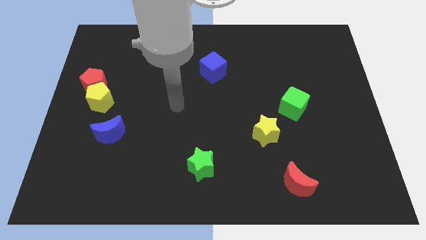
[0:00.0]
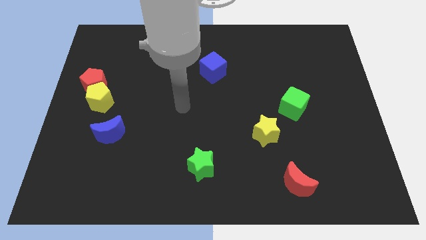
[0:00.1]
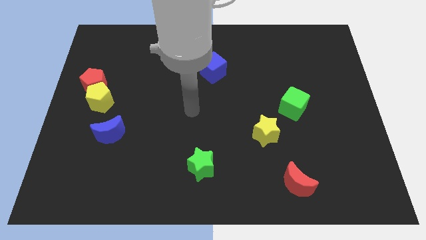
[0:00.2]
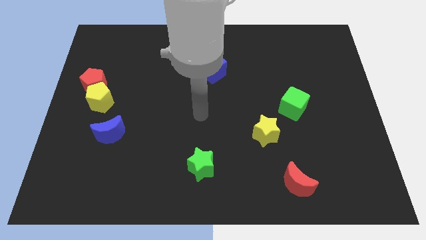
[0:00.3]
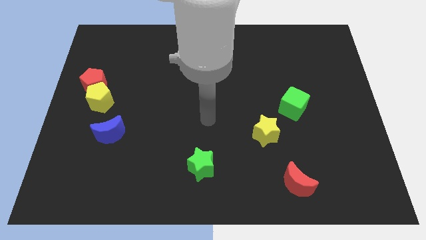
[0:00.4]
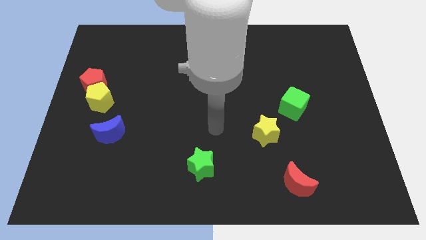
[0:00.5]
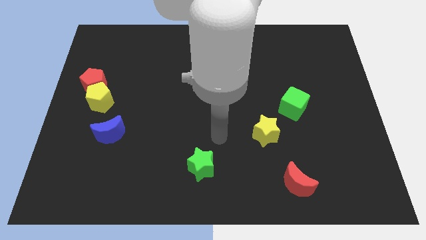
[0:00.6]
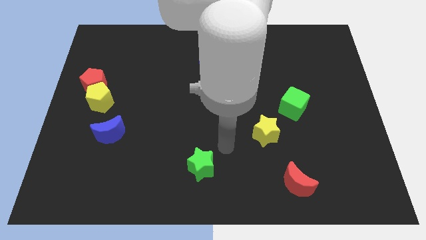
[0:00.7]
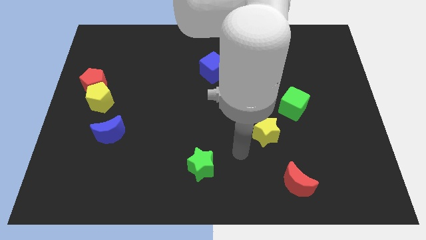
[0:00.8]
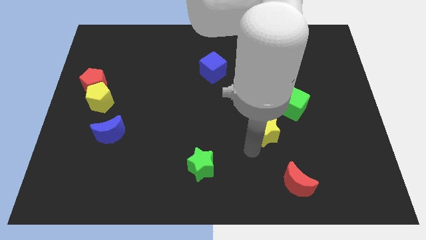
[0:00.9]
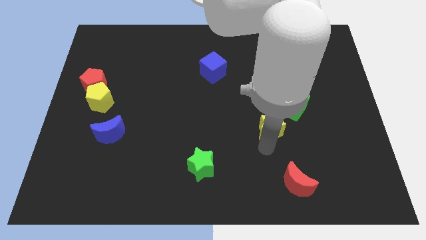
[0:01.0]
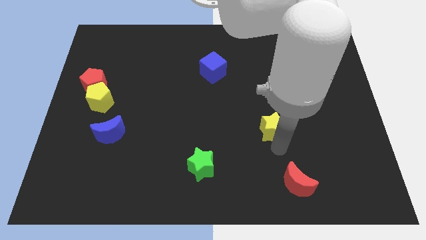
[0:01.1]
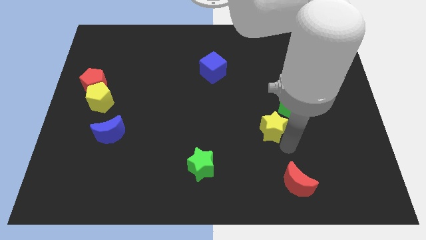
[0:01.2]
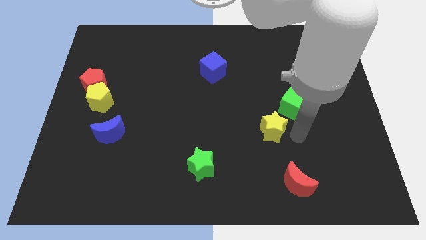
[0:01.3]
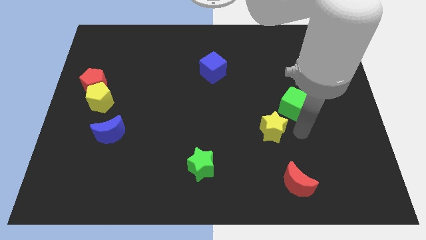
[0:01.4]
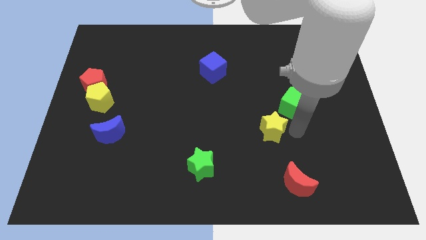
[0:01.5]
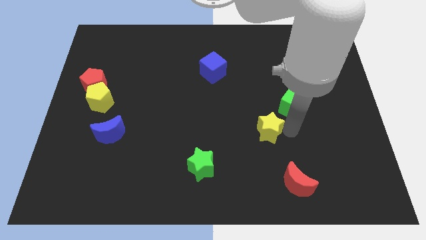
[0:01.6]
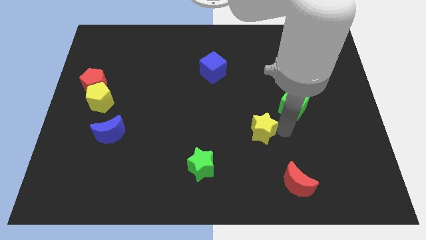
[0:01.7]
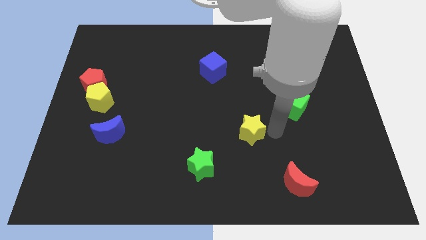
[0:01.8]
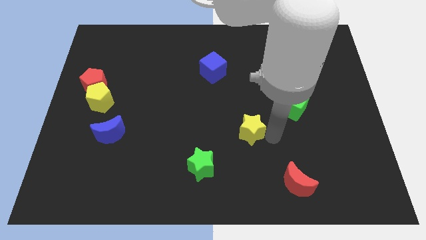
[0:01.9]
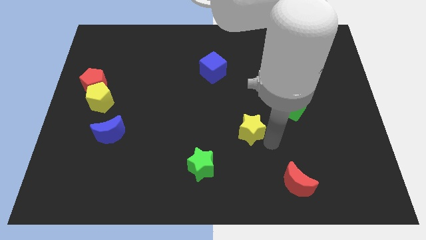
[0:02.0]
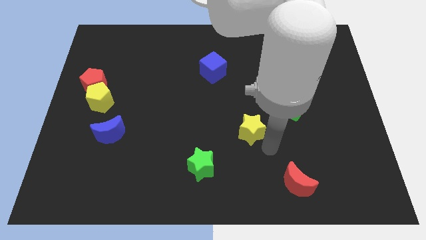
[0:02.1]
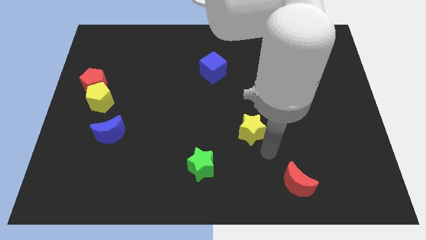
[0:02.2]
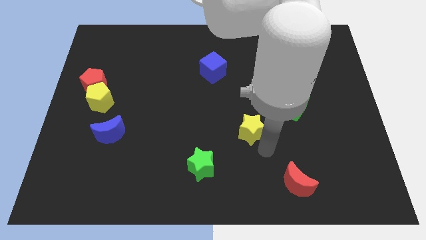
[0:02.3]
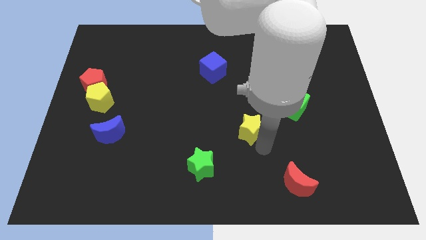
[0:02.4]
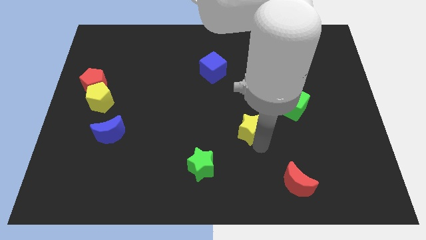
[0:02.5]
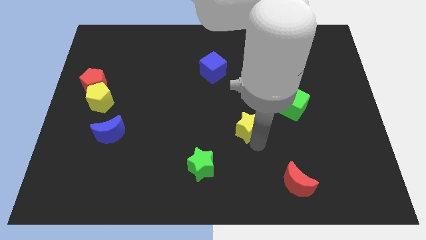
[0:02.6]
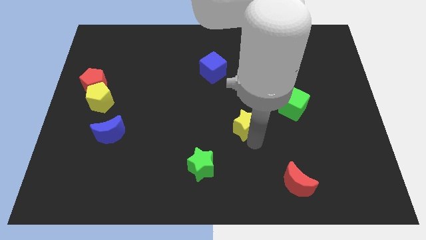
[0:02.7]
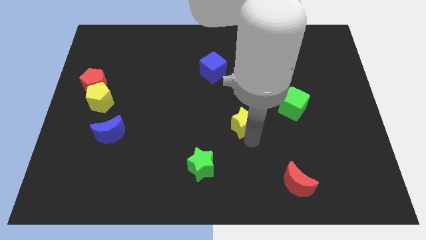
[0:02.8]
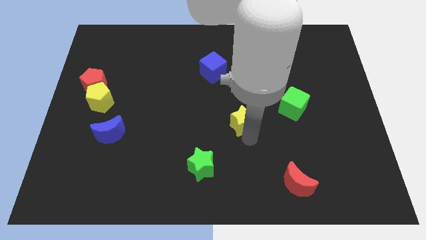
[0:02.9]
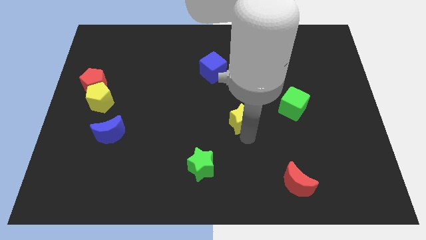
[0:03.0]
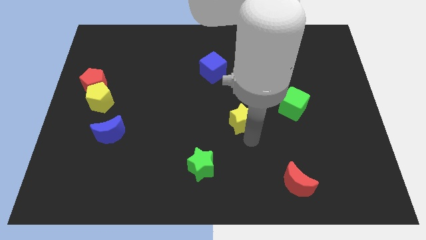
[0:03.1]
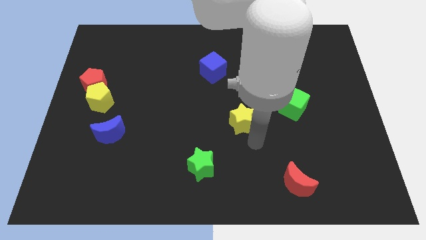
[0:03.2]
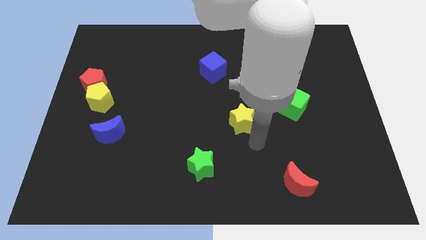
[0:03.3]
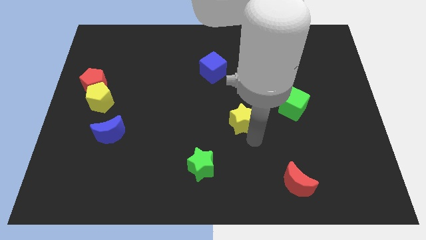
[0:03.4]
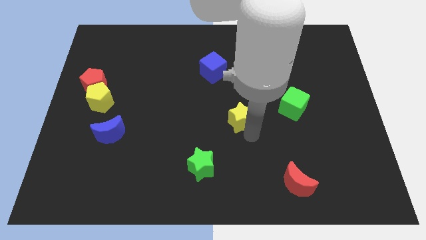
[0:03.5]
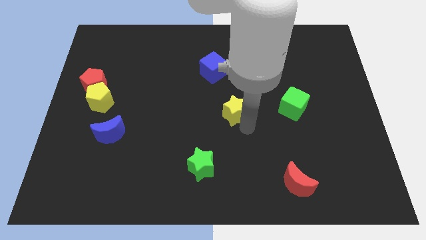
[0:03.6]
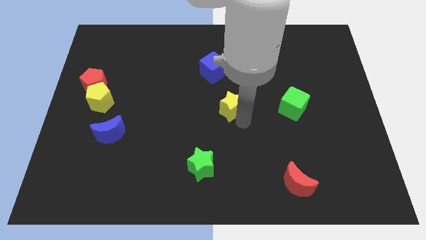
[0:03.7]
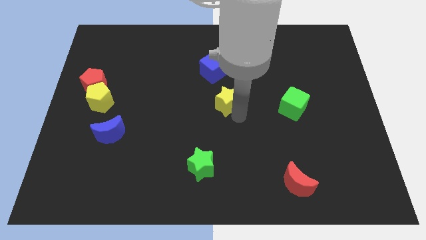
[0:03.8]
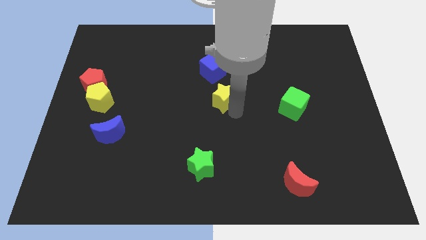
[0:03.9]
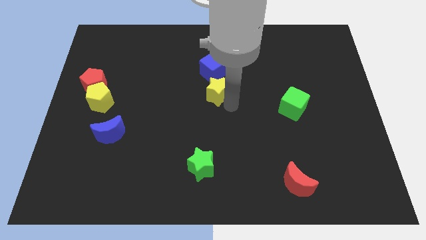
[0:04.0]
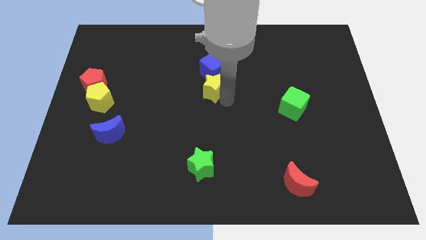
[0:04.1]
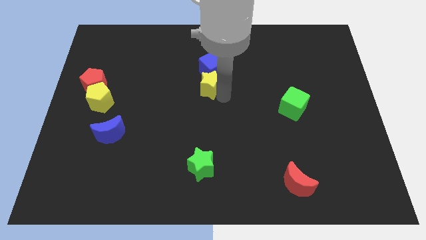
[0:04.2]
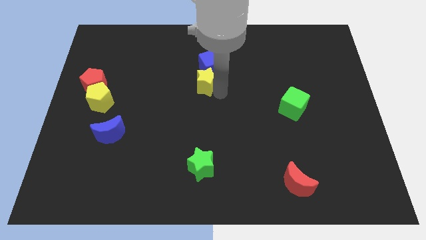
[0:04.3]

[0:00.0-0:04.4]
push the yellow star diagonally upwards and left

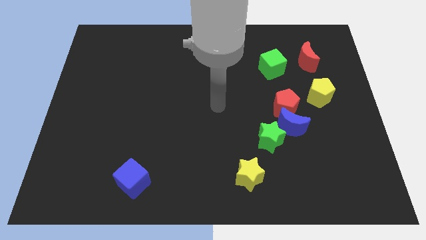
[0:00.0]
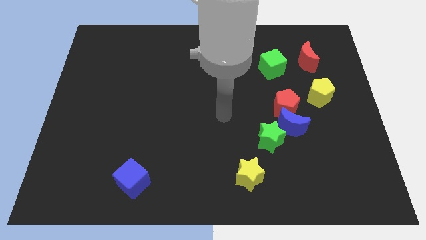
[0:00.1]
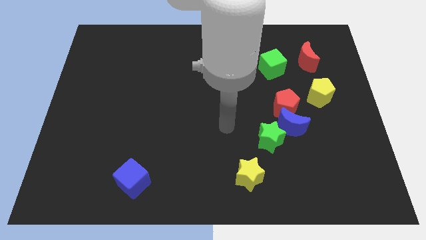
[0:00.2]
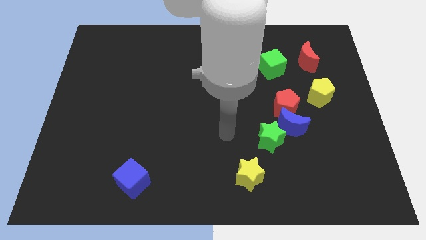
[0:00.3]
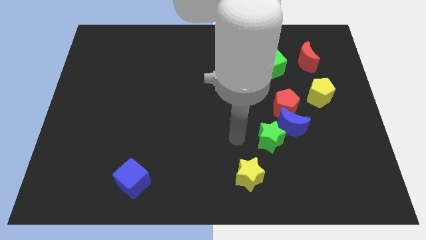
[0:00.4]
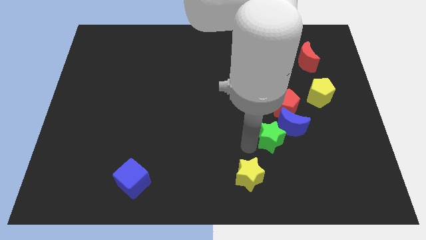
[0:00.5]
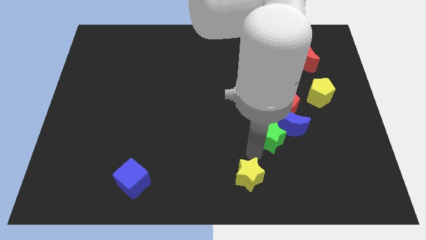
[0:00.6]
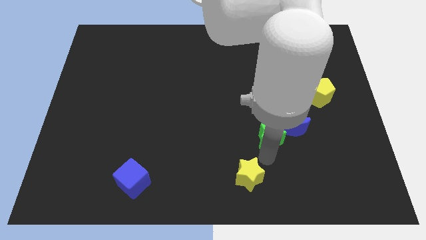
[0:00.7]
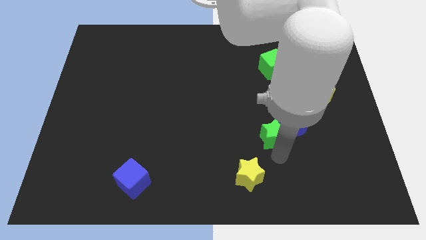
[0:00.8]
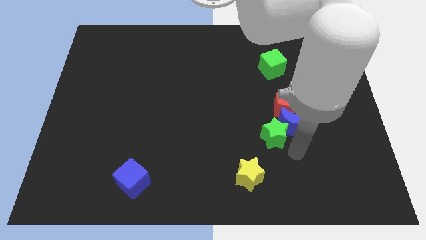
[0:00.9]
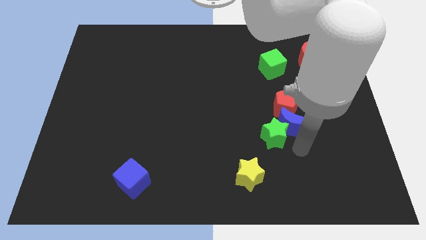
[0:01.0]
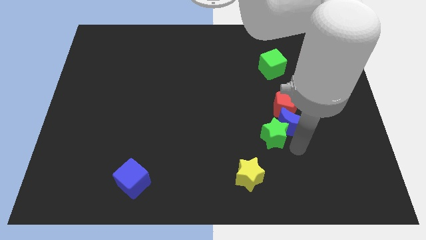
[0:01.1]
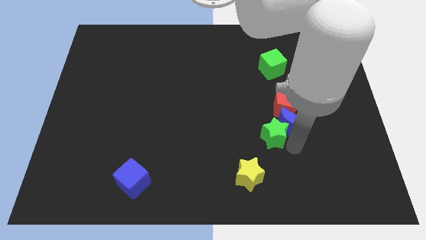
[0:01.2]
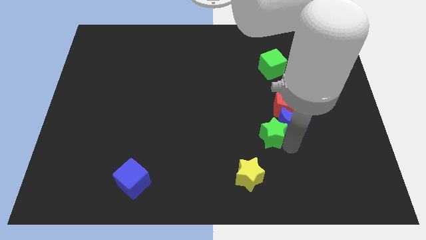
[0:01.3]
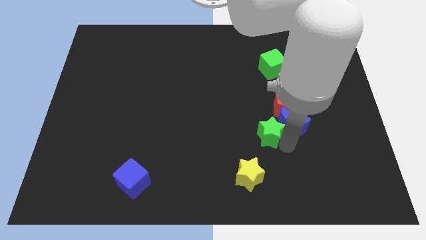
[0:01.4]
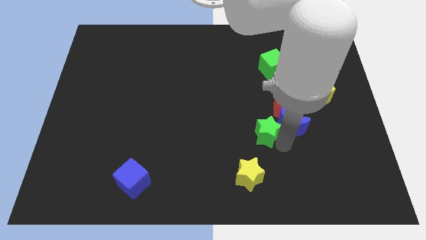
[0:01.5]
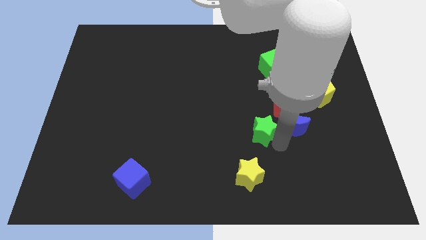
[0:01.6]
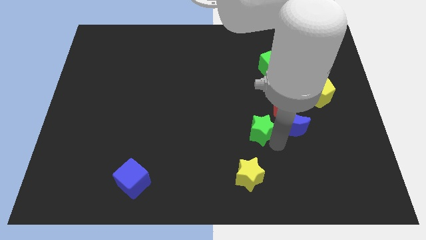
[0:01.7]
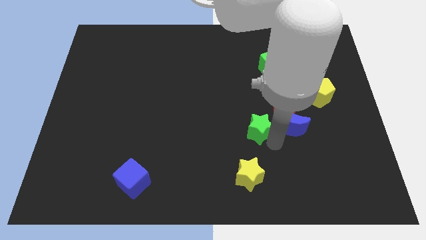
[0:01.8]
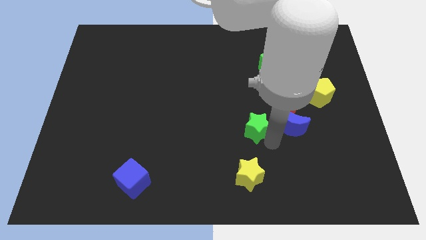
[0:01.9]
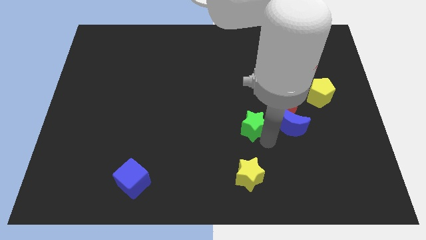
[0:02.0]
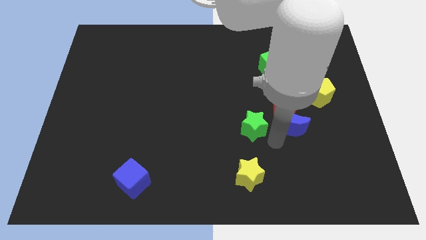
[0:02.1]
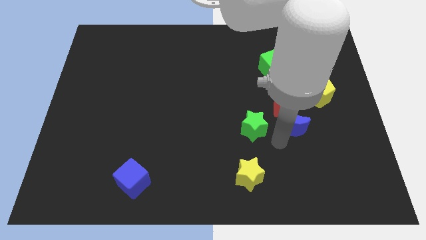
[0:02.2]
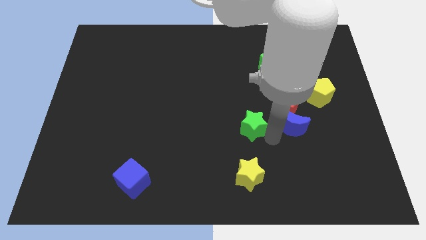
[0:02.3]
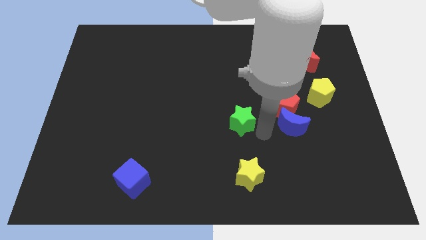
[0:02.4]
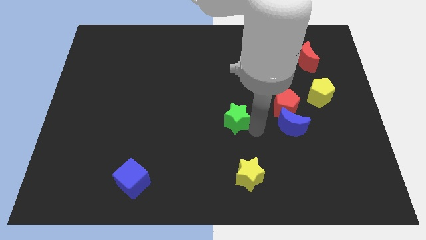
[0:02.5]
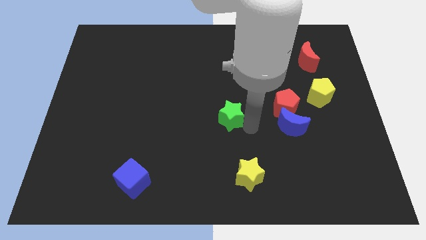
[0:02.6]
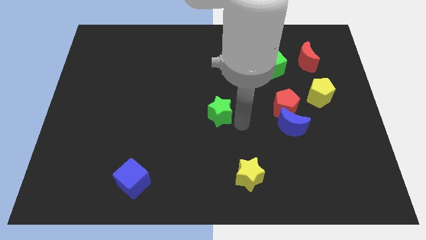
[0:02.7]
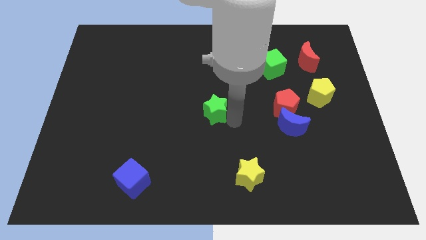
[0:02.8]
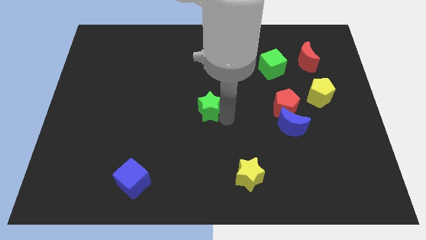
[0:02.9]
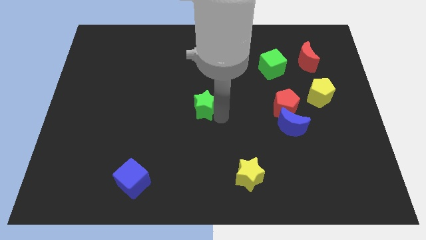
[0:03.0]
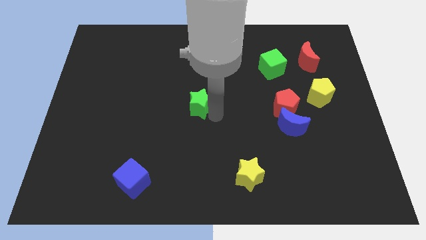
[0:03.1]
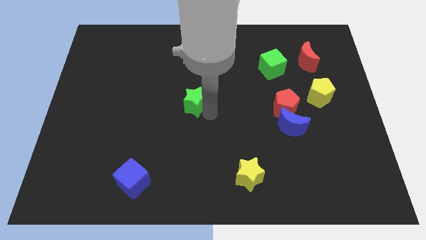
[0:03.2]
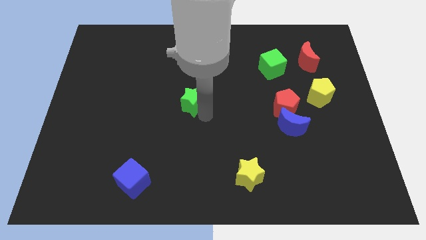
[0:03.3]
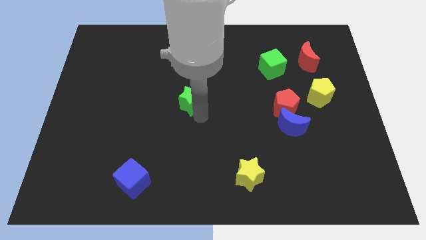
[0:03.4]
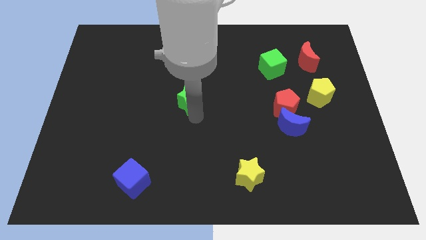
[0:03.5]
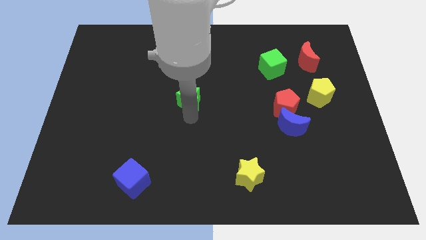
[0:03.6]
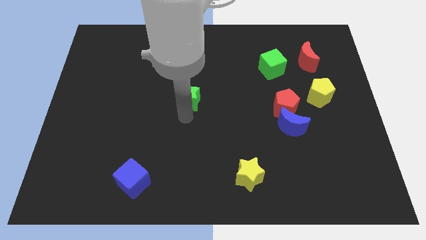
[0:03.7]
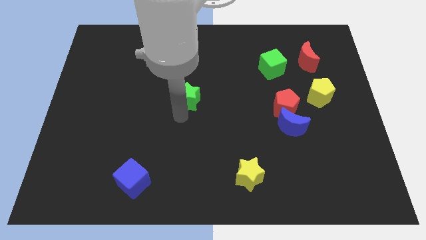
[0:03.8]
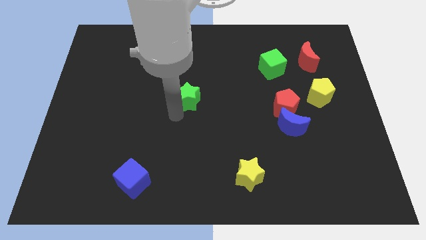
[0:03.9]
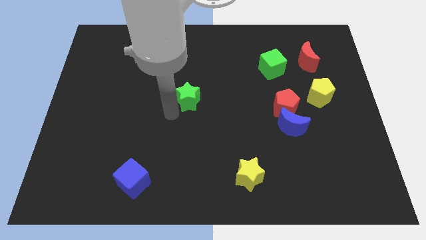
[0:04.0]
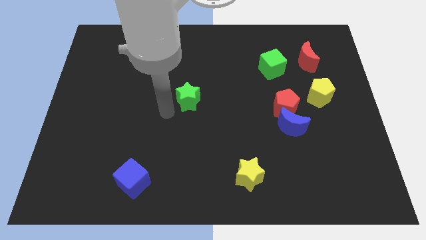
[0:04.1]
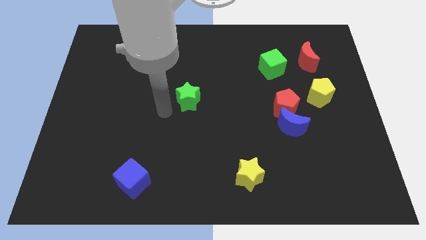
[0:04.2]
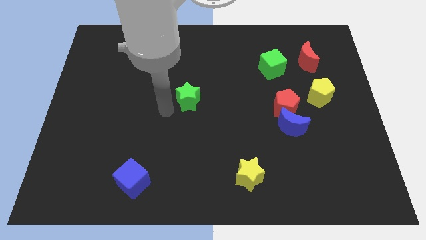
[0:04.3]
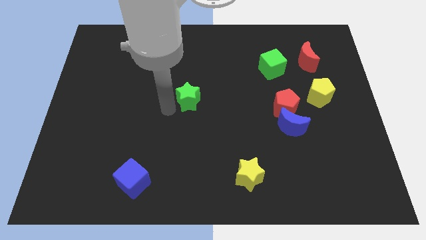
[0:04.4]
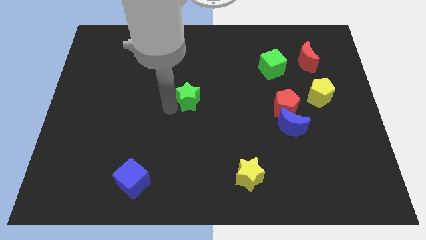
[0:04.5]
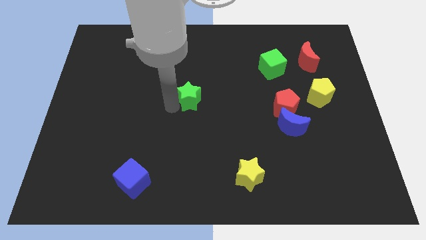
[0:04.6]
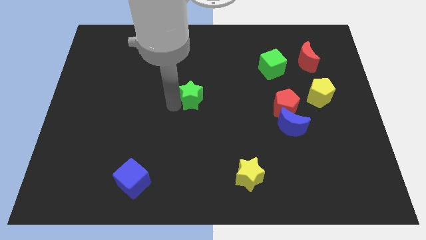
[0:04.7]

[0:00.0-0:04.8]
move the green star diagonally upwards and left
